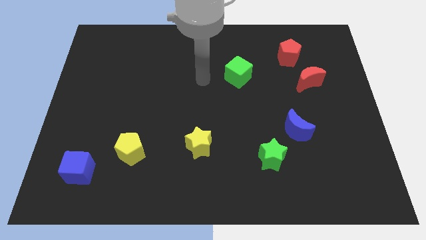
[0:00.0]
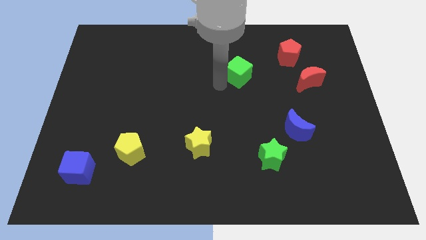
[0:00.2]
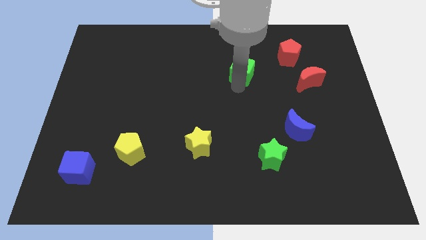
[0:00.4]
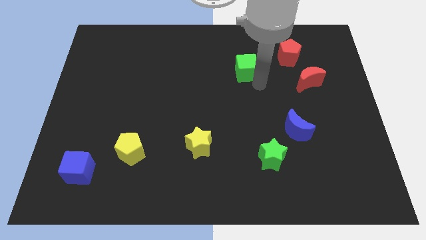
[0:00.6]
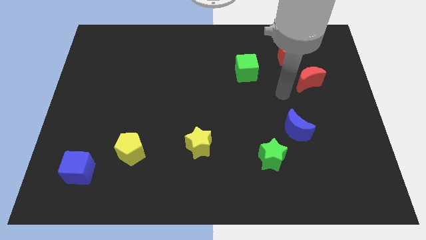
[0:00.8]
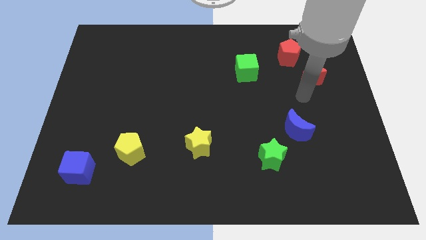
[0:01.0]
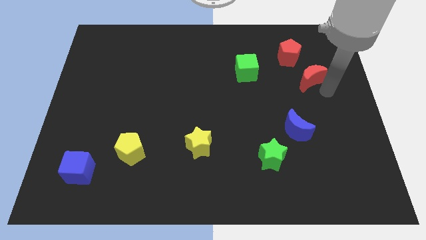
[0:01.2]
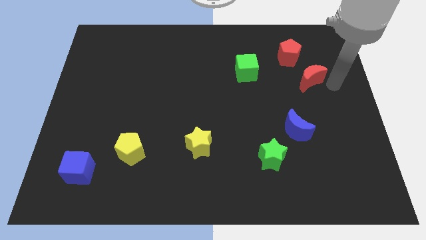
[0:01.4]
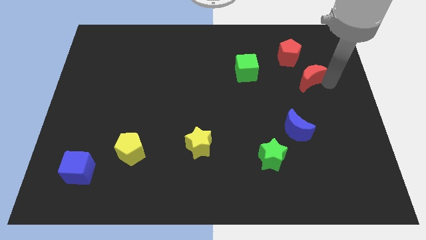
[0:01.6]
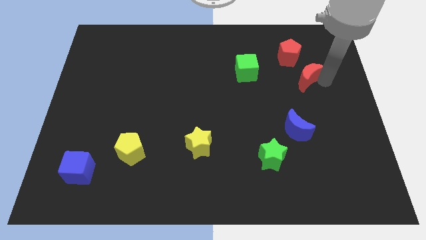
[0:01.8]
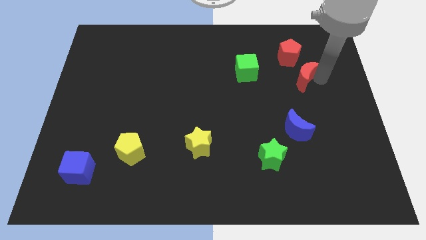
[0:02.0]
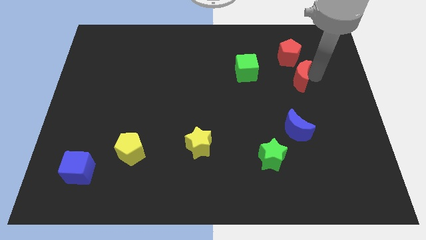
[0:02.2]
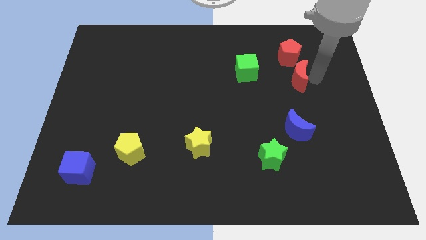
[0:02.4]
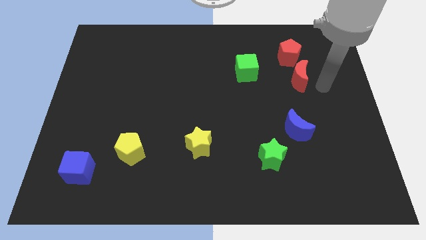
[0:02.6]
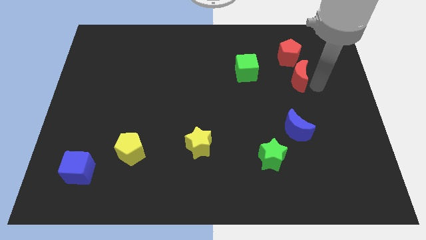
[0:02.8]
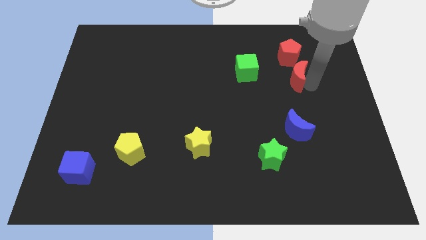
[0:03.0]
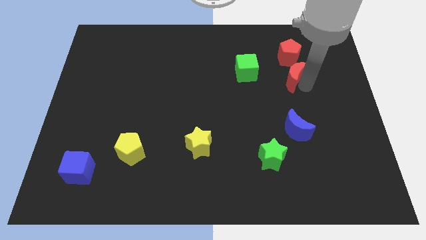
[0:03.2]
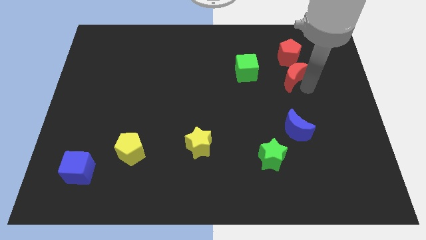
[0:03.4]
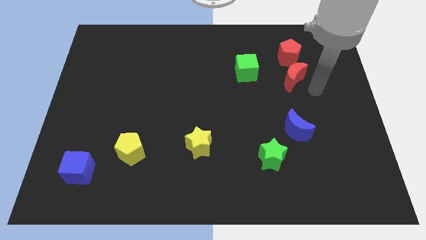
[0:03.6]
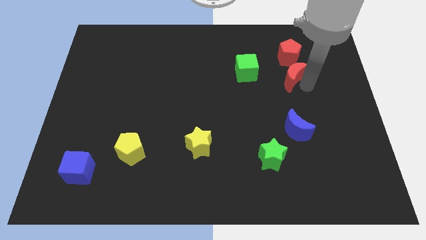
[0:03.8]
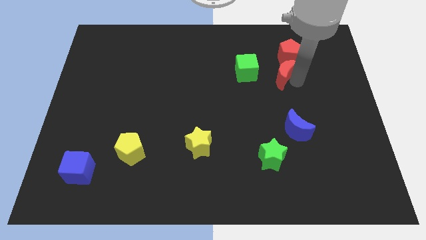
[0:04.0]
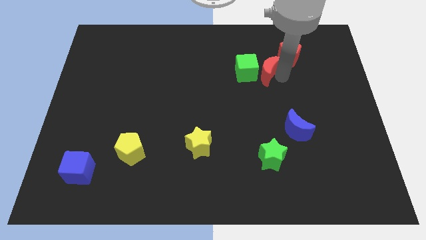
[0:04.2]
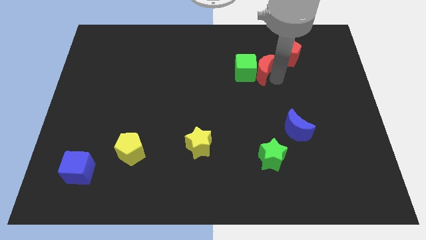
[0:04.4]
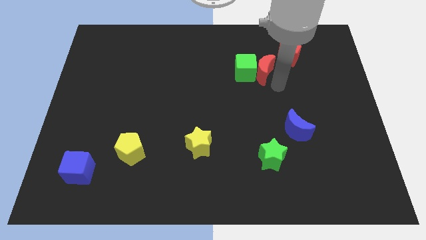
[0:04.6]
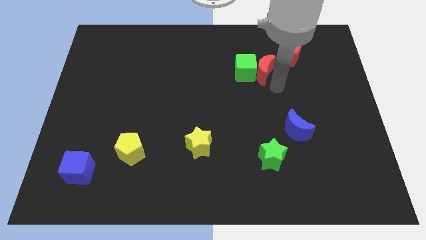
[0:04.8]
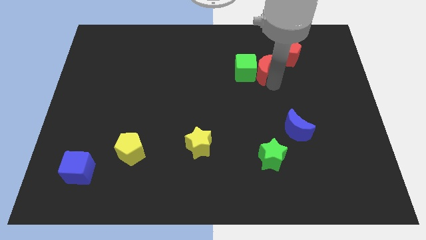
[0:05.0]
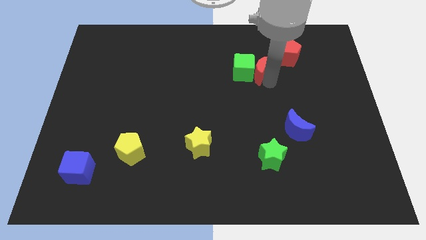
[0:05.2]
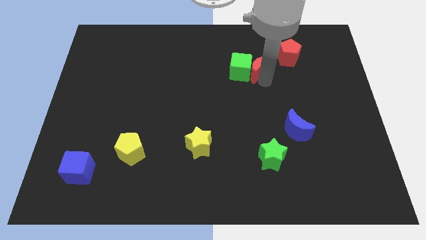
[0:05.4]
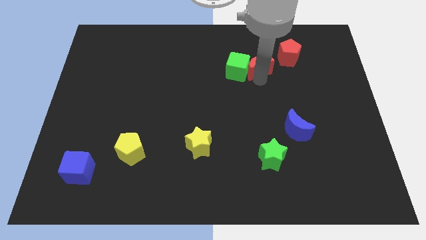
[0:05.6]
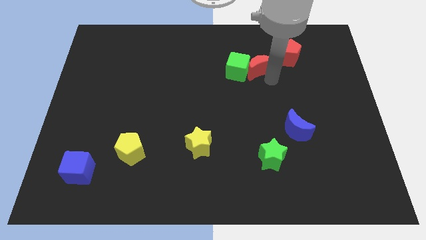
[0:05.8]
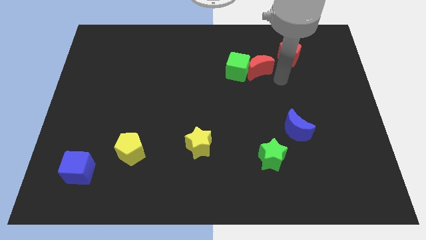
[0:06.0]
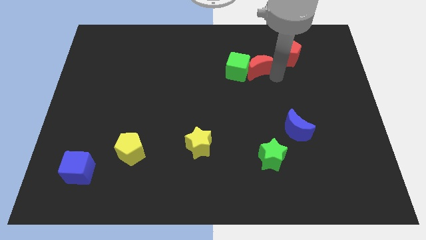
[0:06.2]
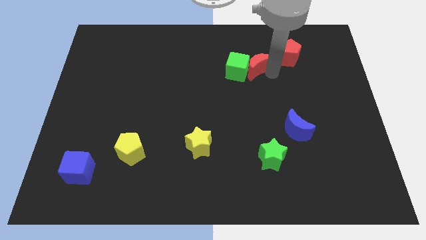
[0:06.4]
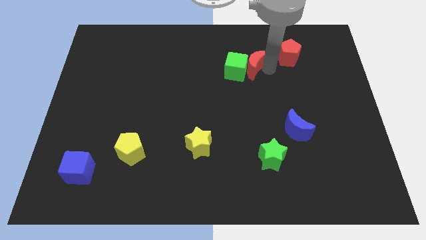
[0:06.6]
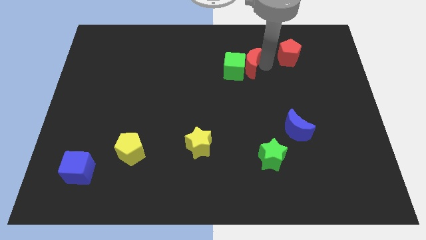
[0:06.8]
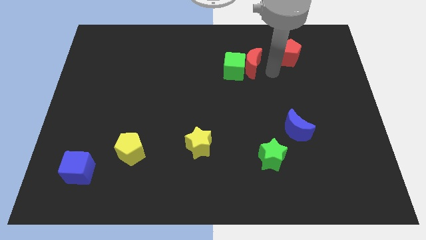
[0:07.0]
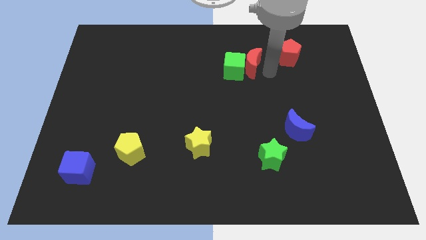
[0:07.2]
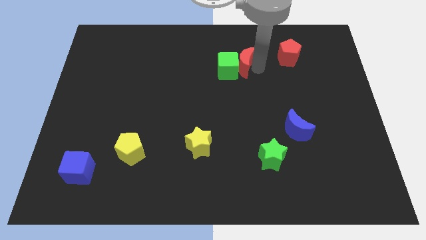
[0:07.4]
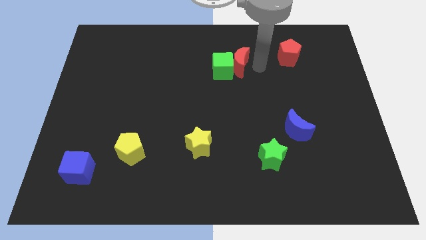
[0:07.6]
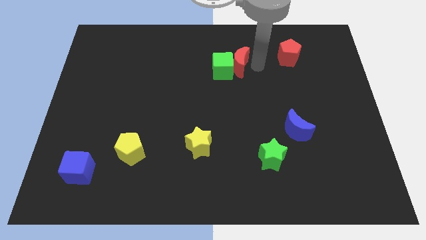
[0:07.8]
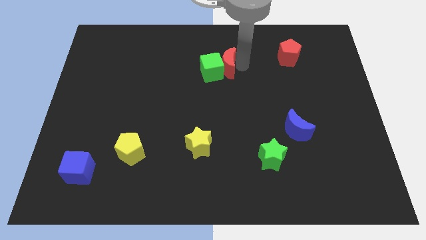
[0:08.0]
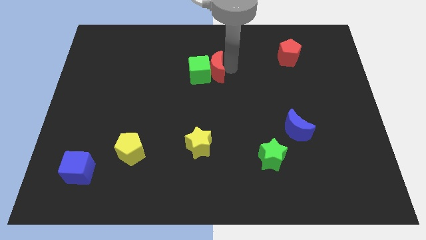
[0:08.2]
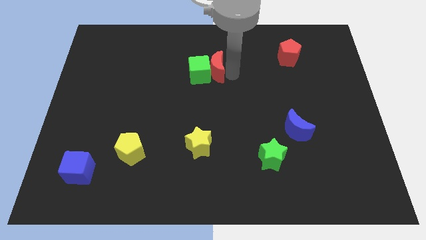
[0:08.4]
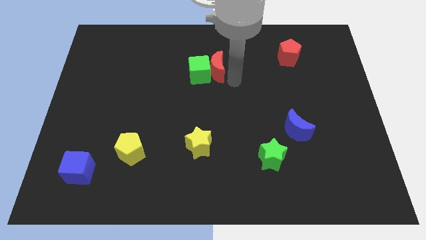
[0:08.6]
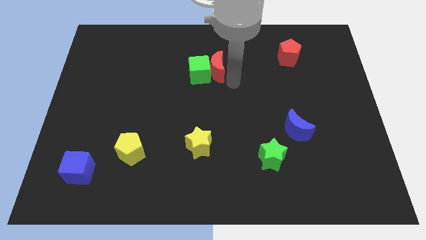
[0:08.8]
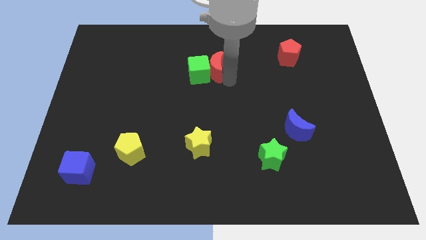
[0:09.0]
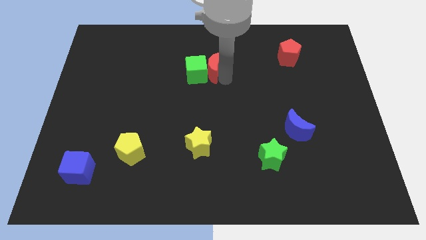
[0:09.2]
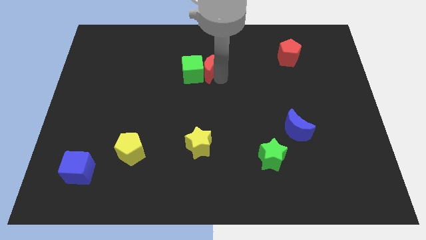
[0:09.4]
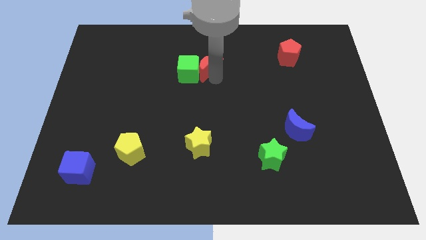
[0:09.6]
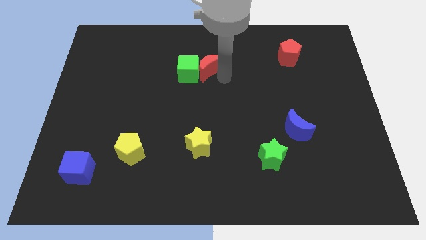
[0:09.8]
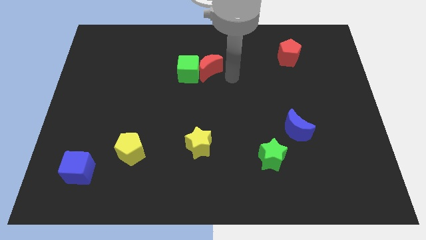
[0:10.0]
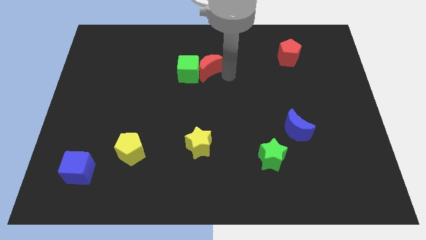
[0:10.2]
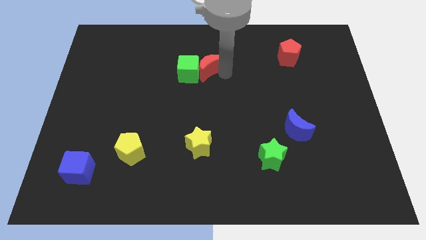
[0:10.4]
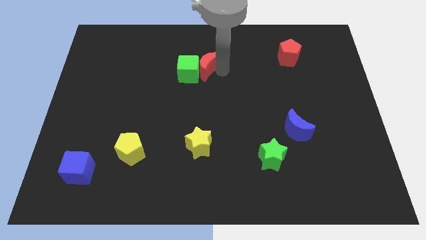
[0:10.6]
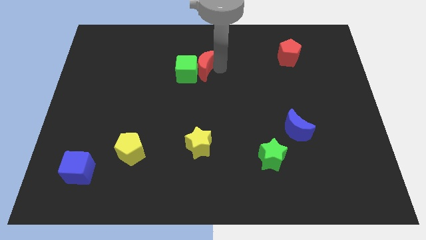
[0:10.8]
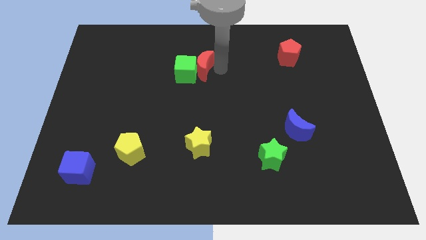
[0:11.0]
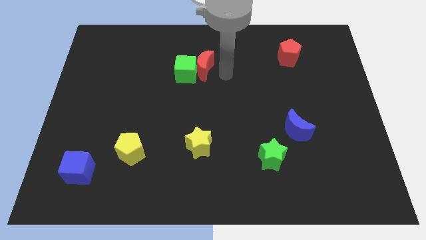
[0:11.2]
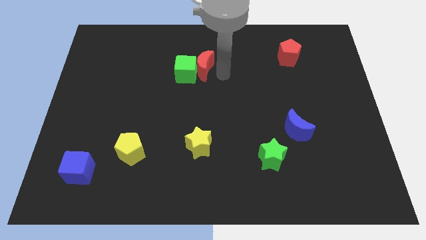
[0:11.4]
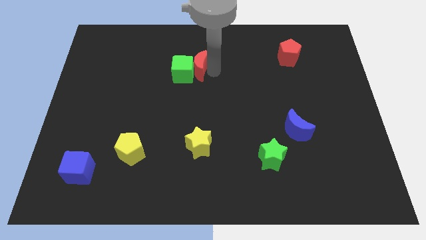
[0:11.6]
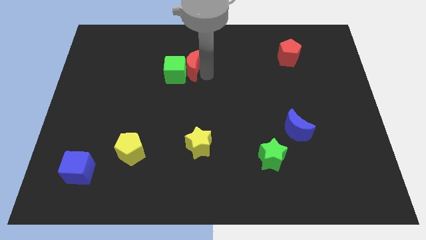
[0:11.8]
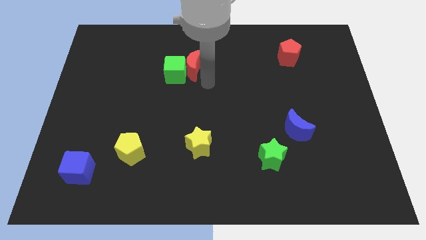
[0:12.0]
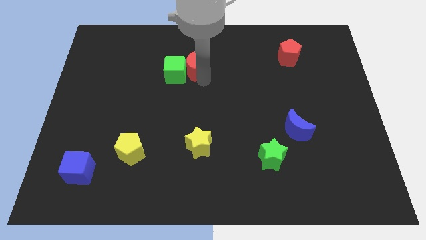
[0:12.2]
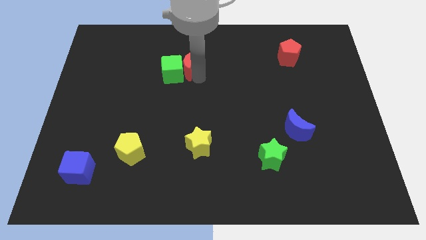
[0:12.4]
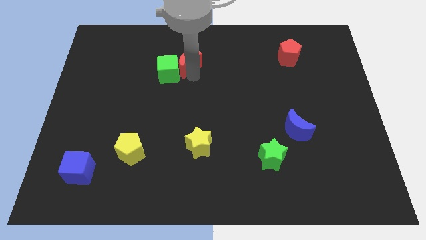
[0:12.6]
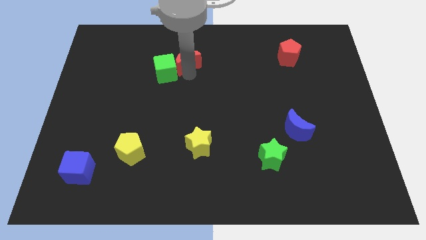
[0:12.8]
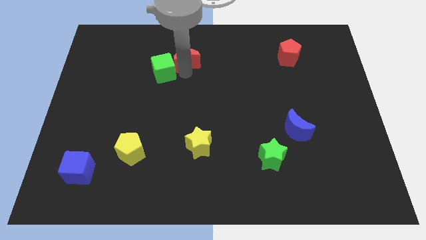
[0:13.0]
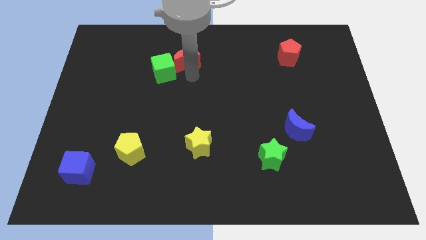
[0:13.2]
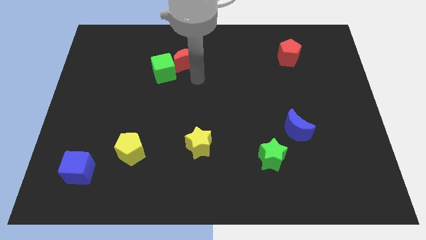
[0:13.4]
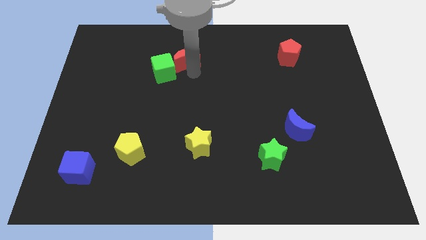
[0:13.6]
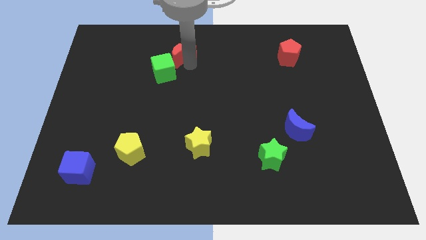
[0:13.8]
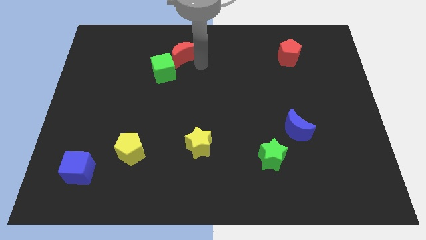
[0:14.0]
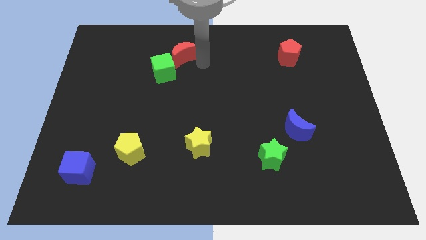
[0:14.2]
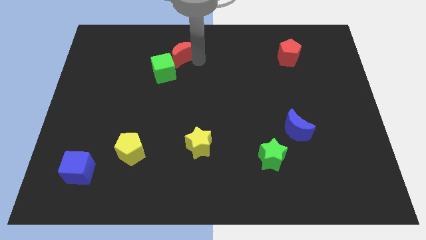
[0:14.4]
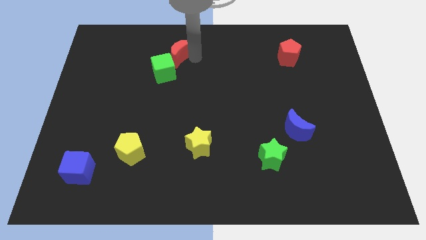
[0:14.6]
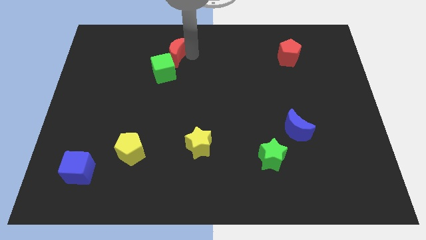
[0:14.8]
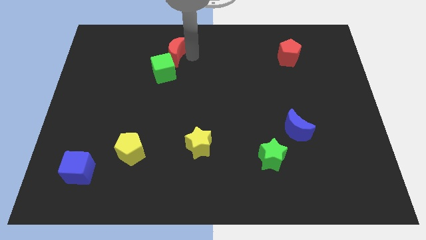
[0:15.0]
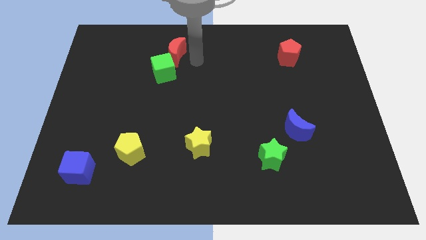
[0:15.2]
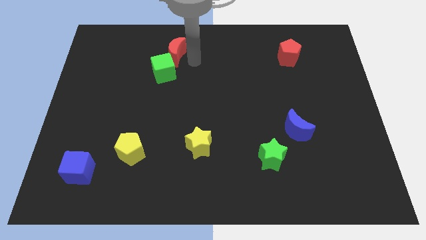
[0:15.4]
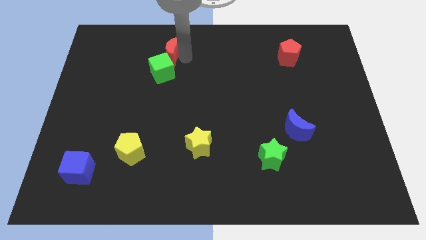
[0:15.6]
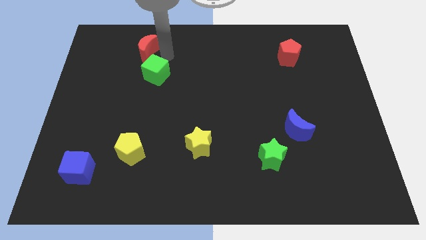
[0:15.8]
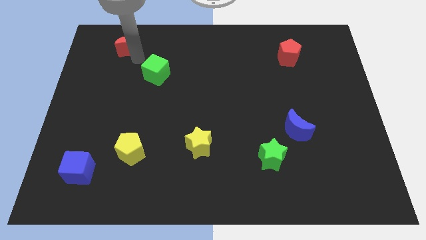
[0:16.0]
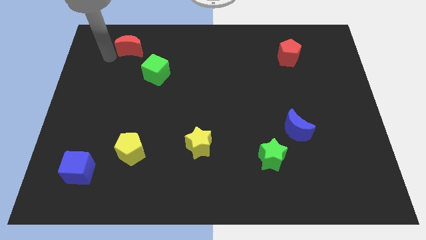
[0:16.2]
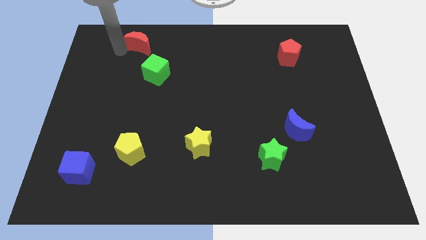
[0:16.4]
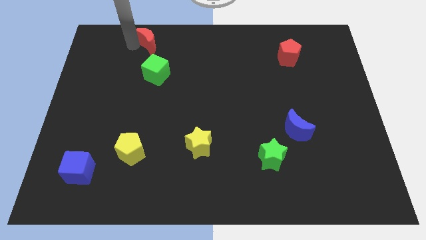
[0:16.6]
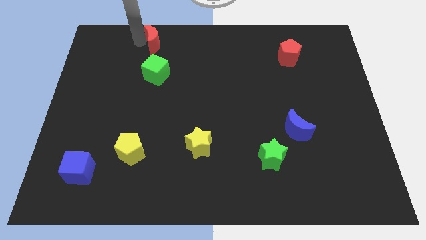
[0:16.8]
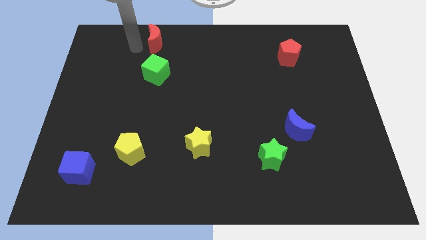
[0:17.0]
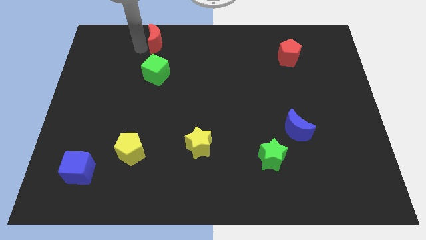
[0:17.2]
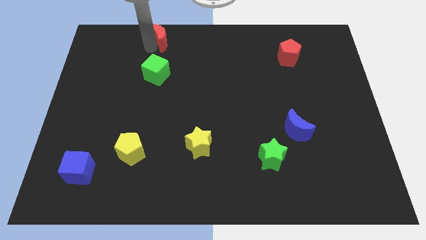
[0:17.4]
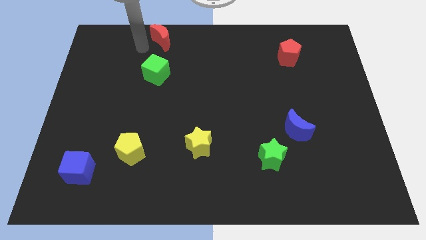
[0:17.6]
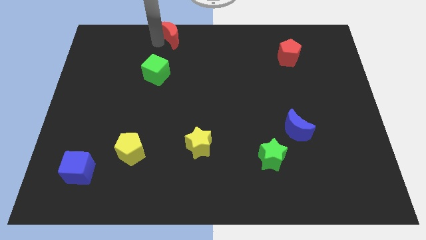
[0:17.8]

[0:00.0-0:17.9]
push the red moon to the top
